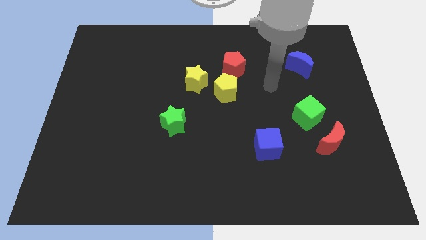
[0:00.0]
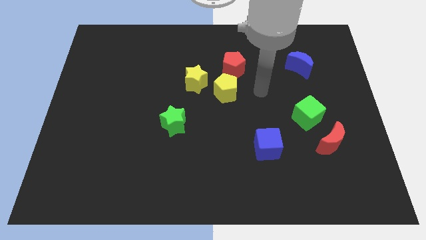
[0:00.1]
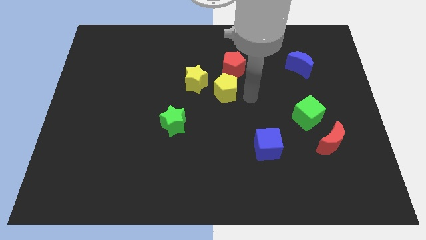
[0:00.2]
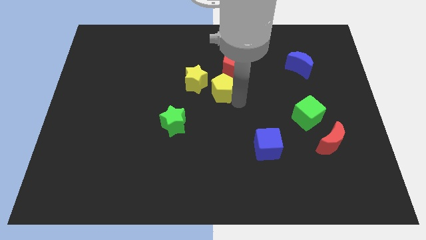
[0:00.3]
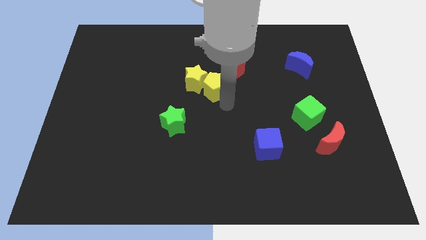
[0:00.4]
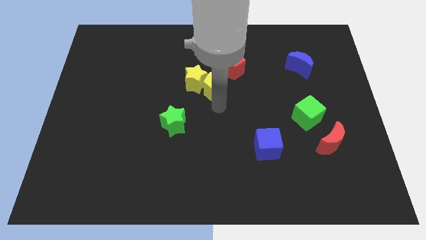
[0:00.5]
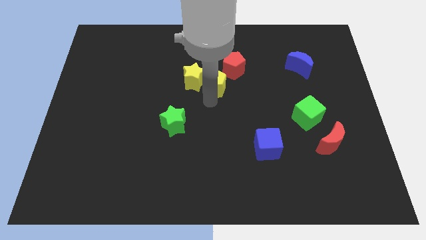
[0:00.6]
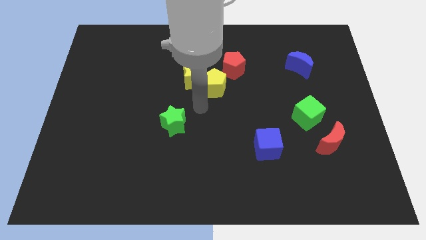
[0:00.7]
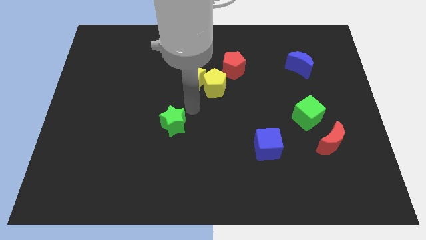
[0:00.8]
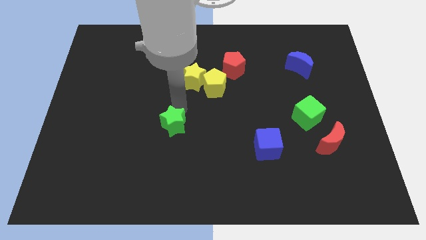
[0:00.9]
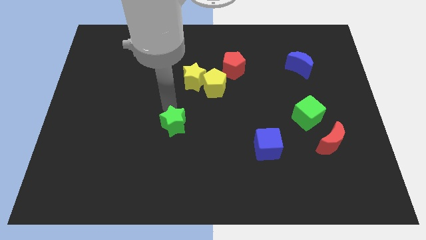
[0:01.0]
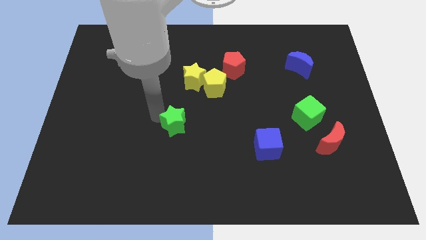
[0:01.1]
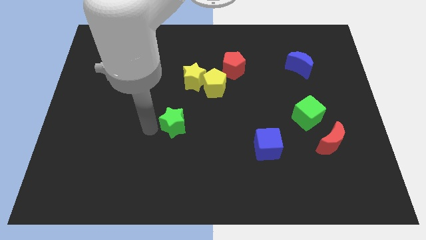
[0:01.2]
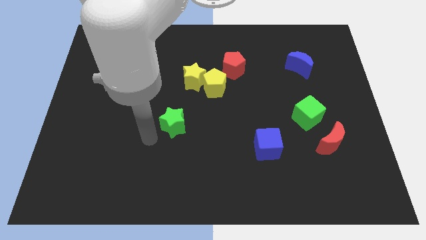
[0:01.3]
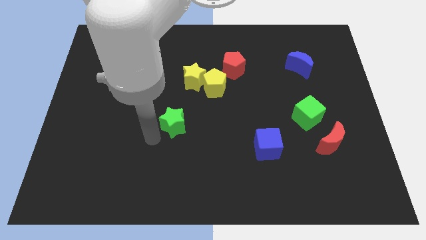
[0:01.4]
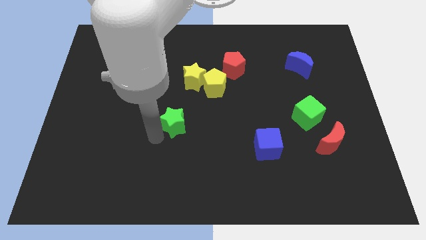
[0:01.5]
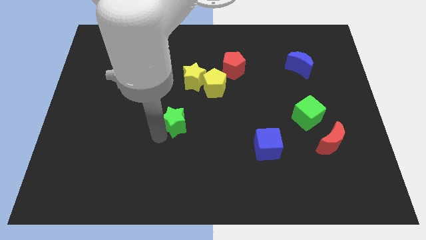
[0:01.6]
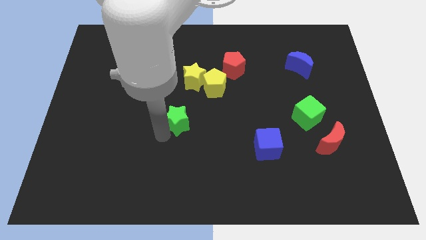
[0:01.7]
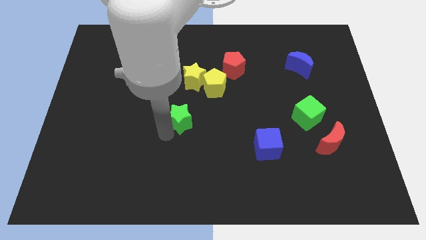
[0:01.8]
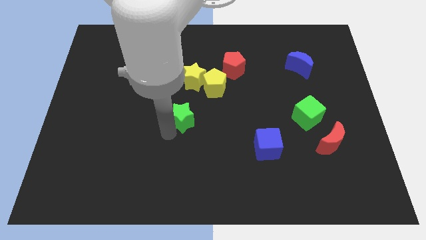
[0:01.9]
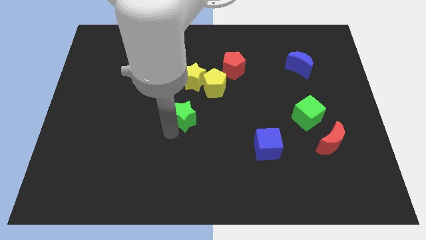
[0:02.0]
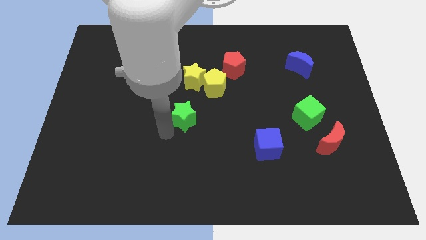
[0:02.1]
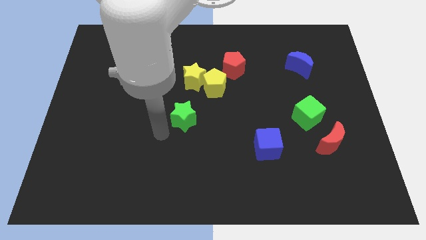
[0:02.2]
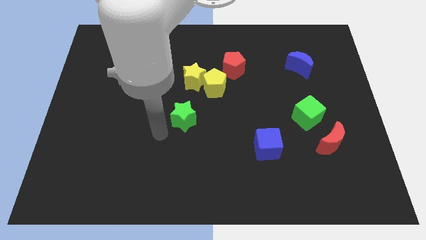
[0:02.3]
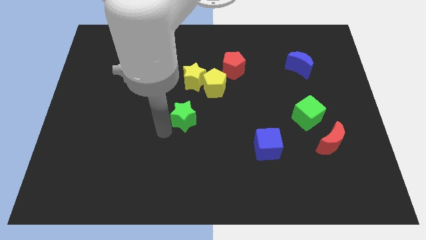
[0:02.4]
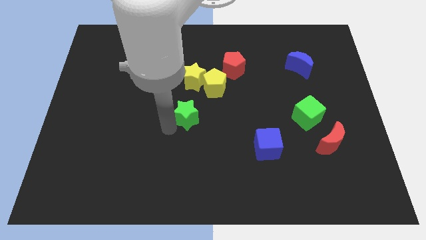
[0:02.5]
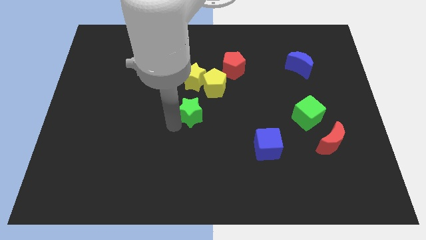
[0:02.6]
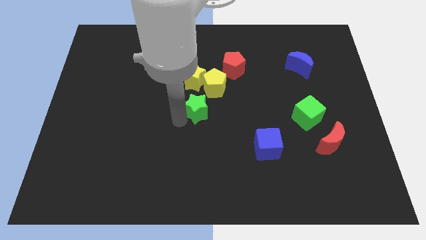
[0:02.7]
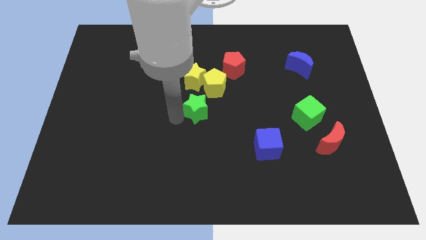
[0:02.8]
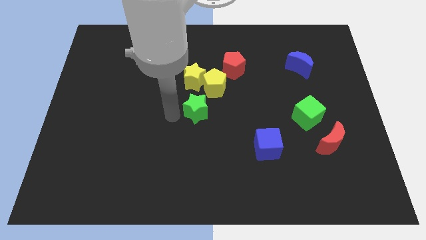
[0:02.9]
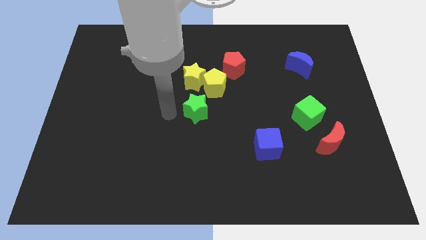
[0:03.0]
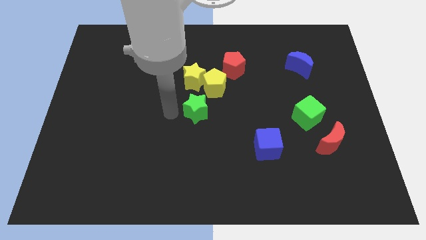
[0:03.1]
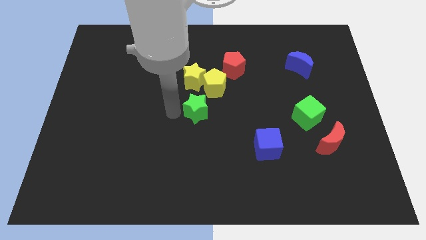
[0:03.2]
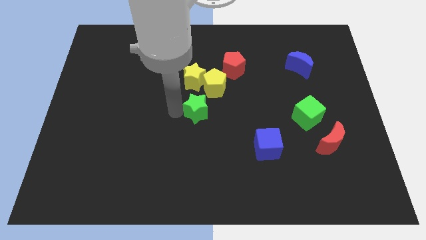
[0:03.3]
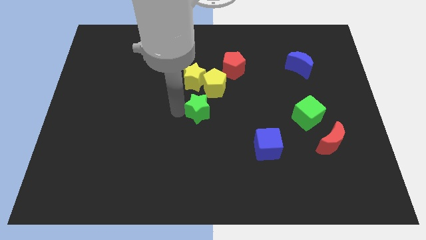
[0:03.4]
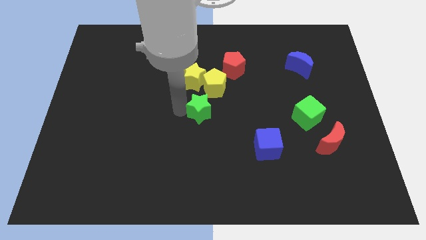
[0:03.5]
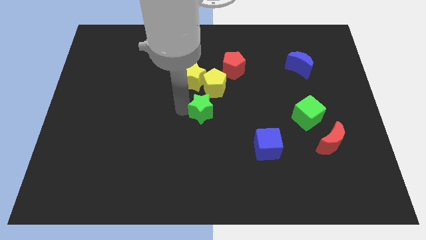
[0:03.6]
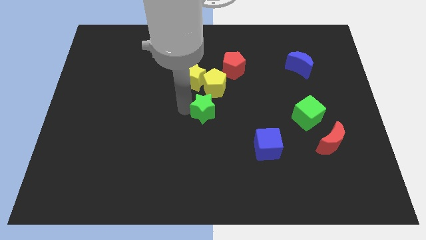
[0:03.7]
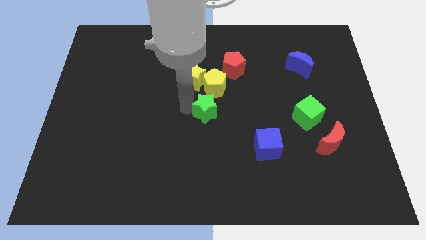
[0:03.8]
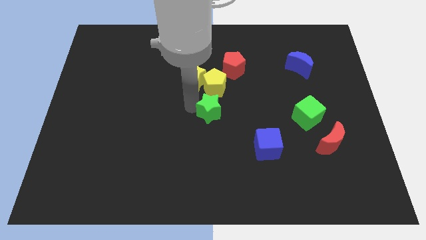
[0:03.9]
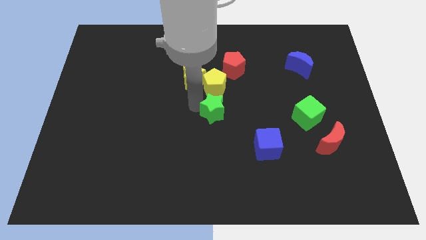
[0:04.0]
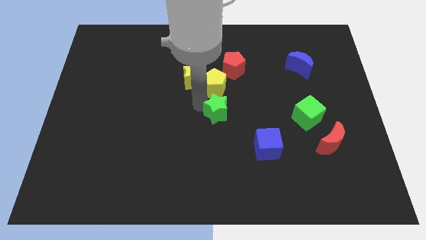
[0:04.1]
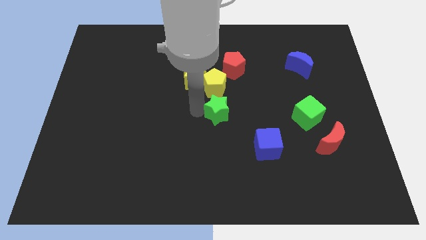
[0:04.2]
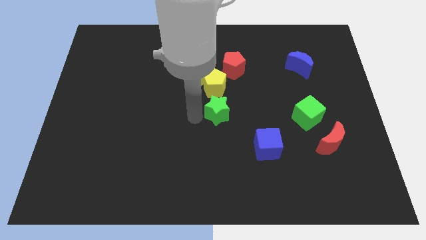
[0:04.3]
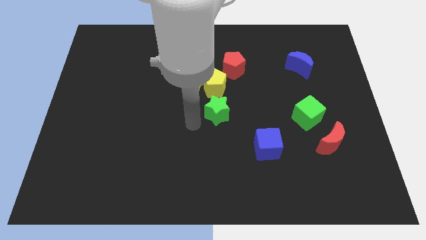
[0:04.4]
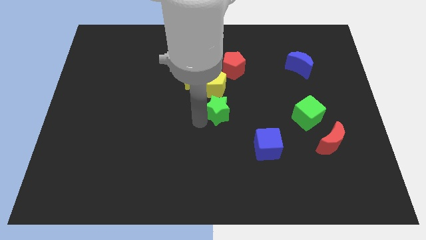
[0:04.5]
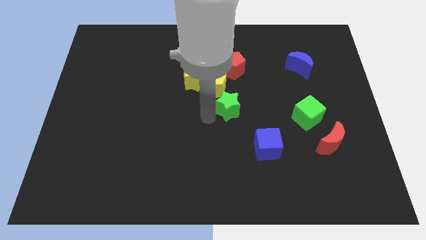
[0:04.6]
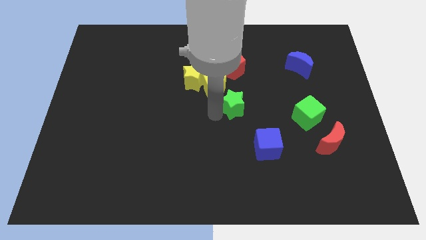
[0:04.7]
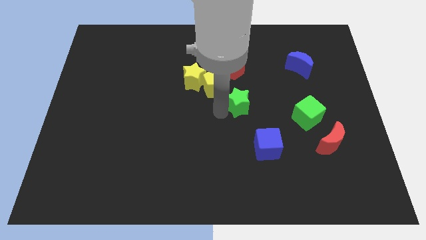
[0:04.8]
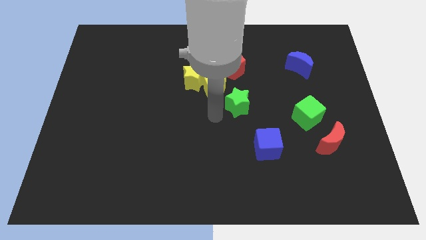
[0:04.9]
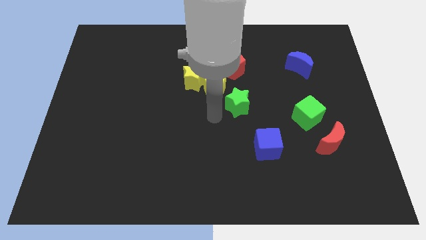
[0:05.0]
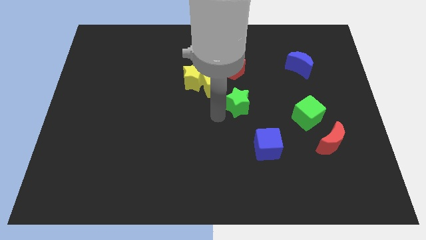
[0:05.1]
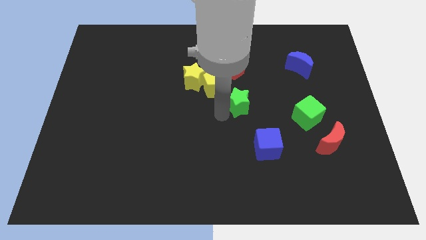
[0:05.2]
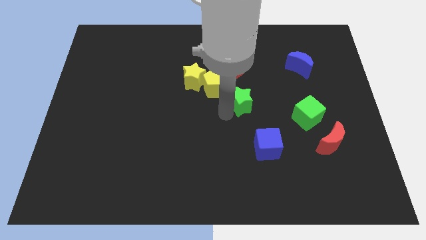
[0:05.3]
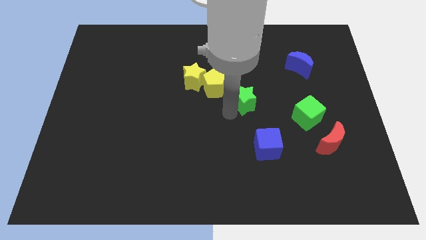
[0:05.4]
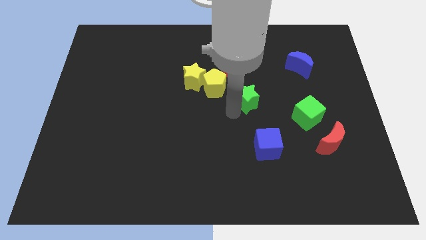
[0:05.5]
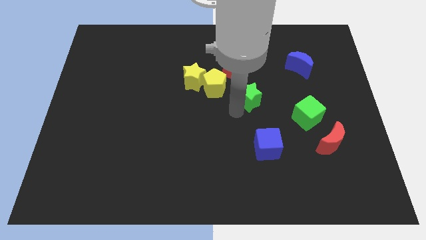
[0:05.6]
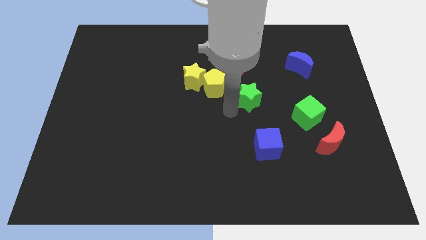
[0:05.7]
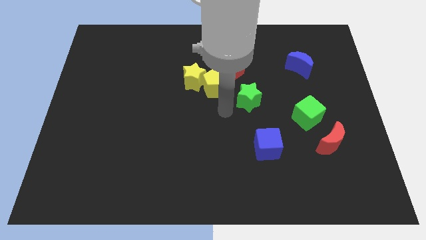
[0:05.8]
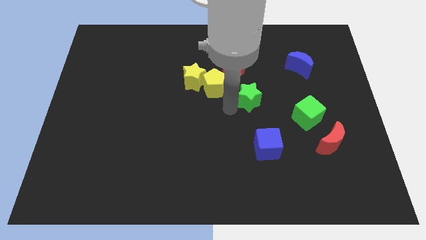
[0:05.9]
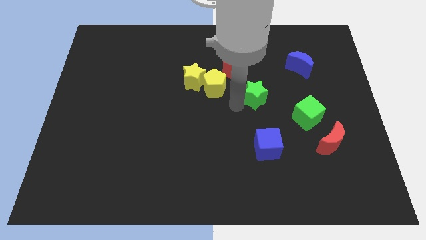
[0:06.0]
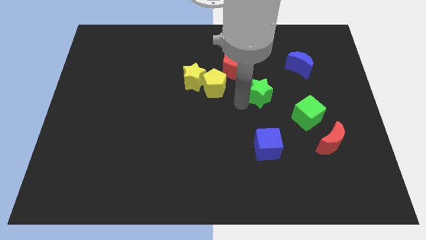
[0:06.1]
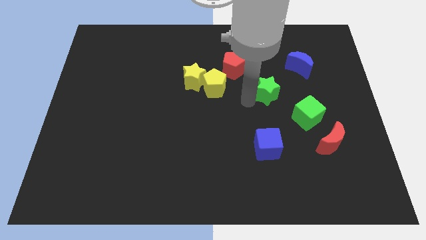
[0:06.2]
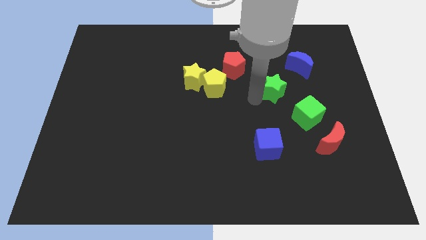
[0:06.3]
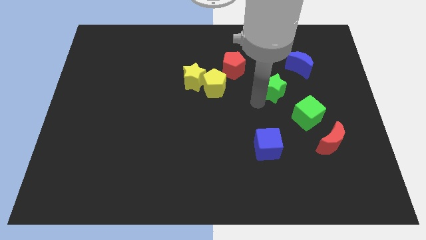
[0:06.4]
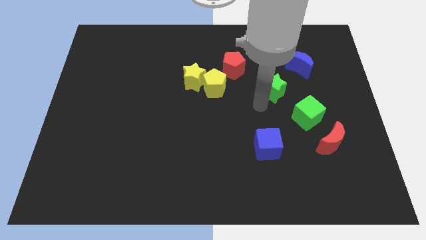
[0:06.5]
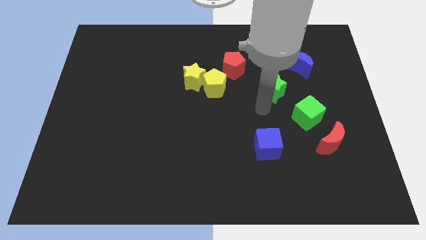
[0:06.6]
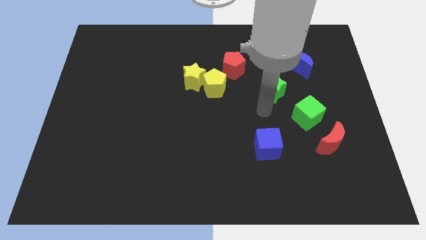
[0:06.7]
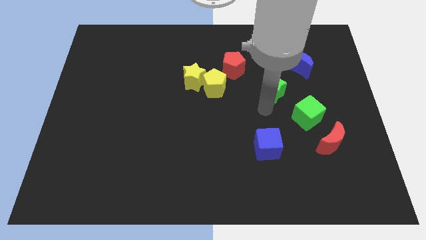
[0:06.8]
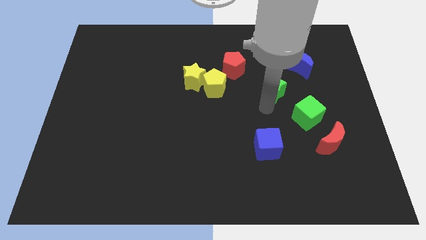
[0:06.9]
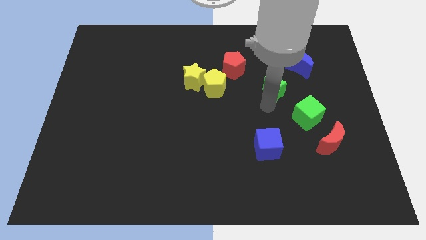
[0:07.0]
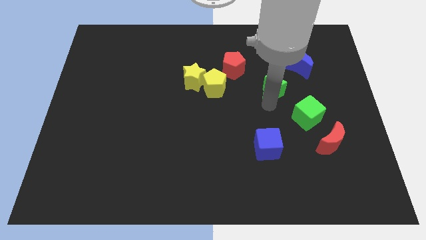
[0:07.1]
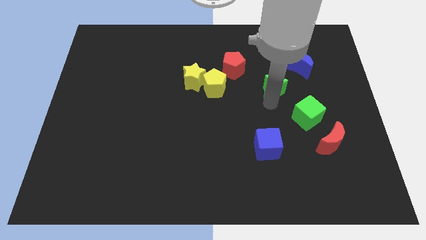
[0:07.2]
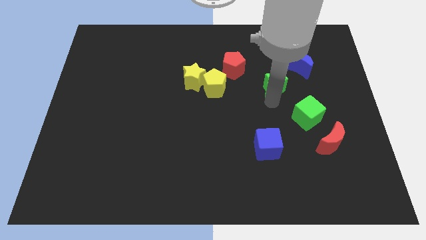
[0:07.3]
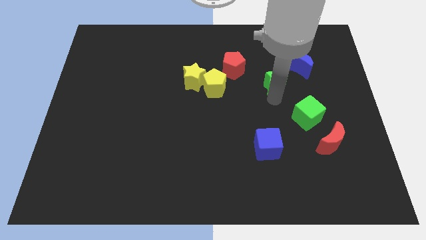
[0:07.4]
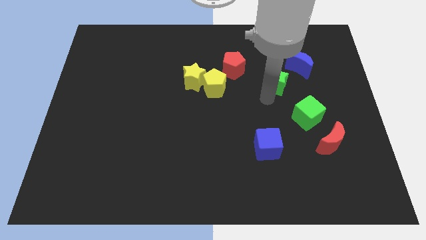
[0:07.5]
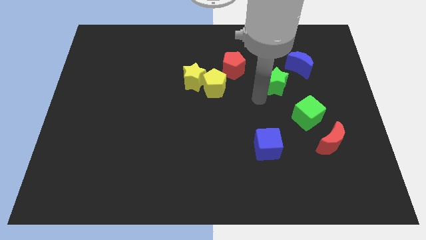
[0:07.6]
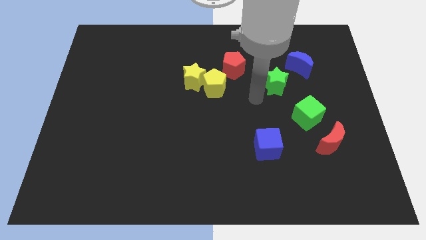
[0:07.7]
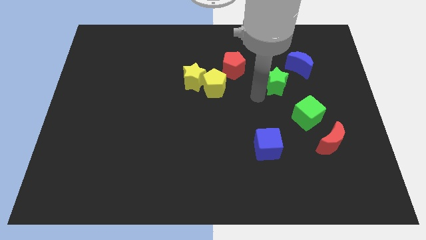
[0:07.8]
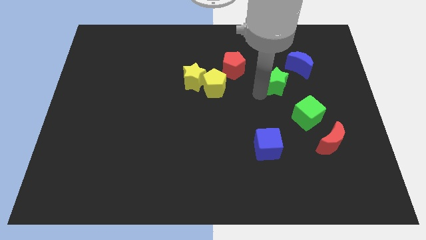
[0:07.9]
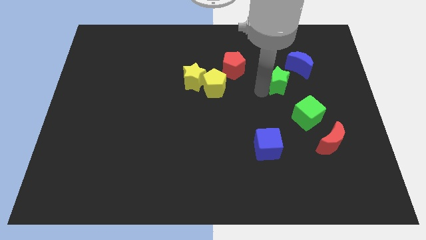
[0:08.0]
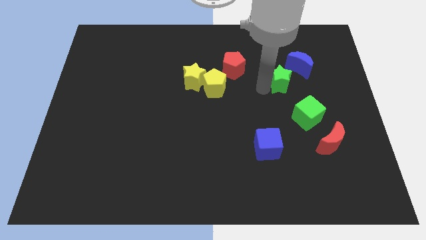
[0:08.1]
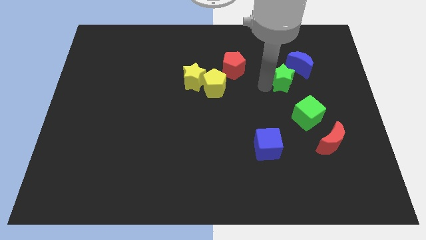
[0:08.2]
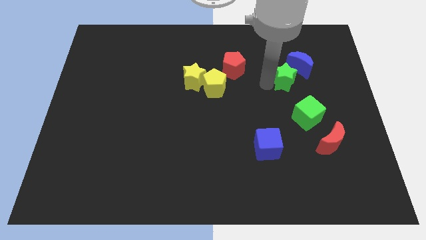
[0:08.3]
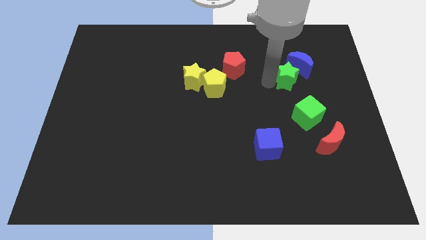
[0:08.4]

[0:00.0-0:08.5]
put the green star next to the blue moon
